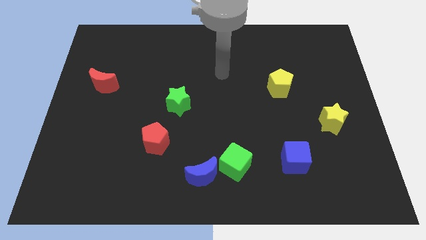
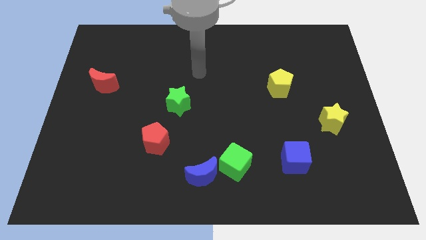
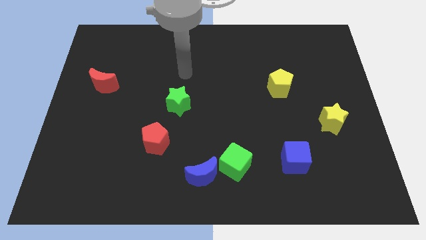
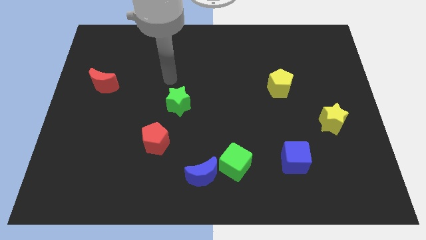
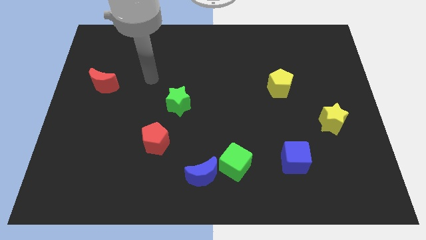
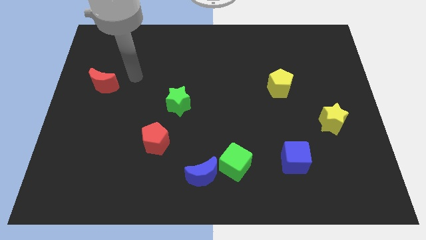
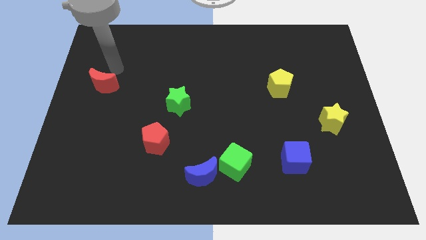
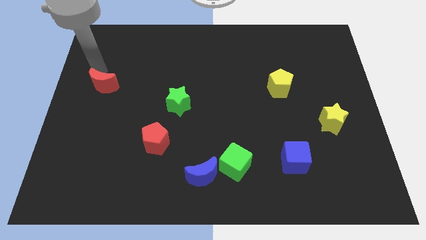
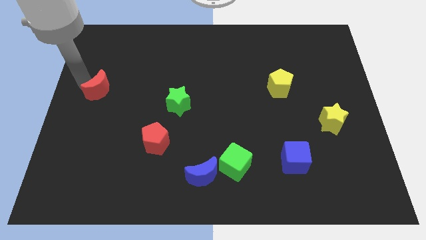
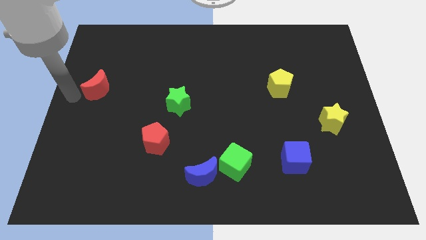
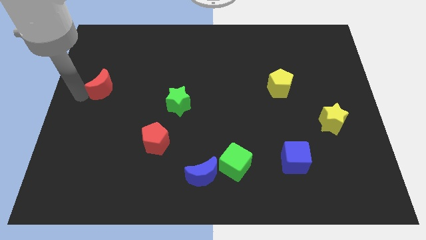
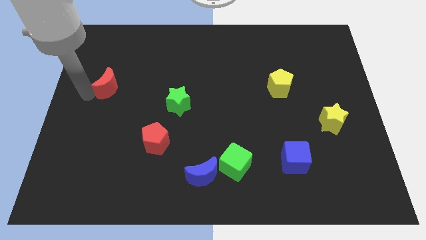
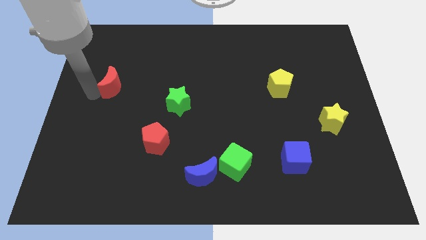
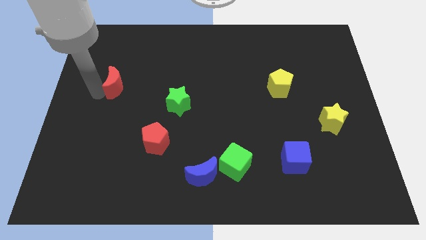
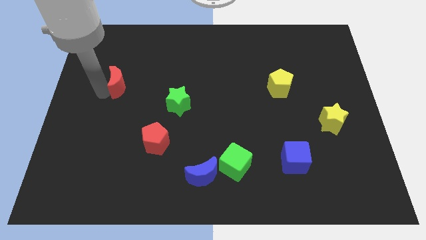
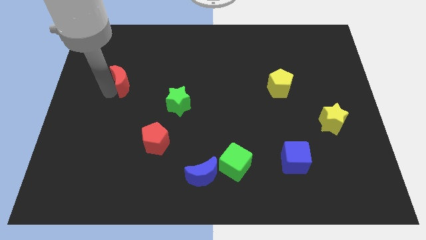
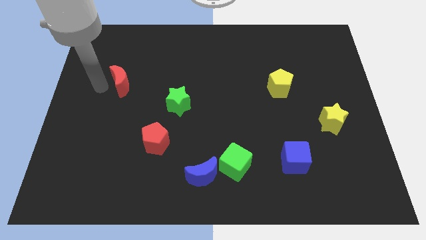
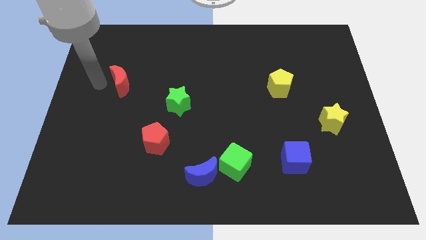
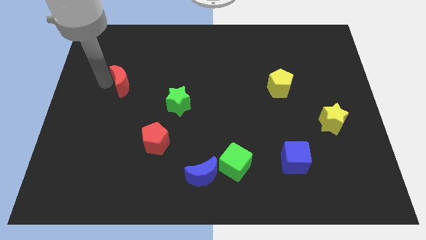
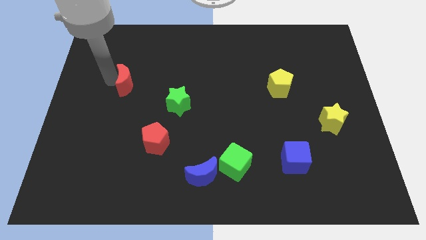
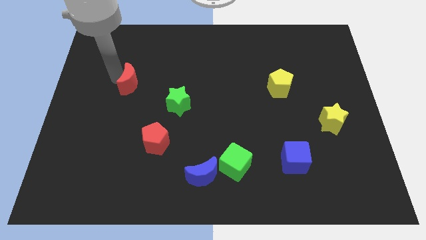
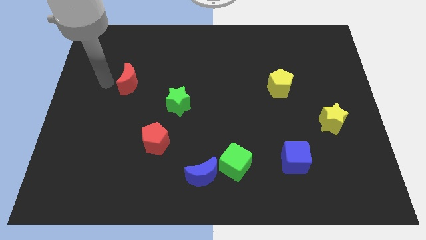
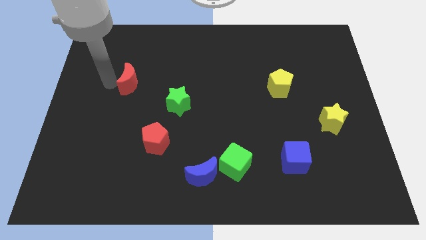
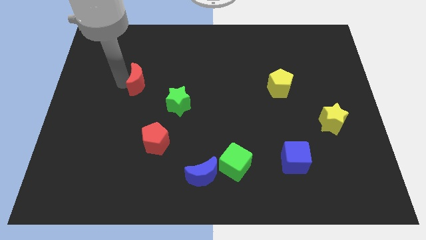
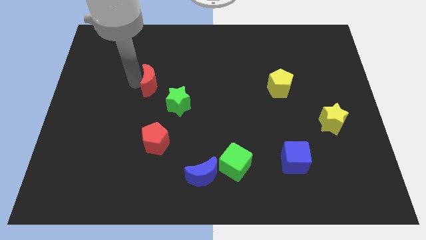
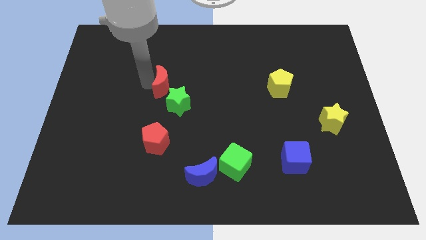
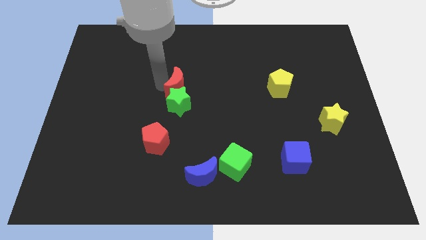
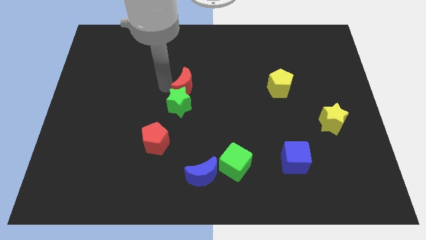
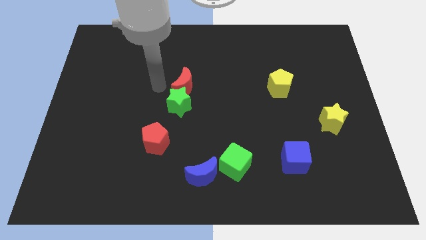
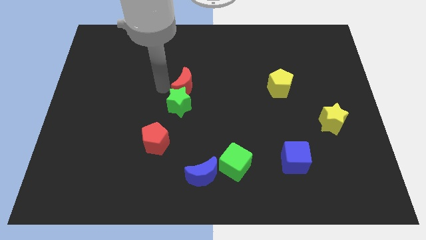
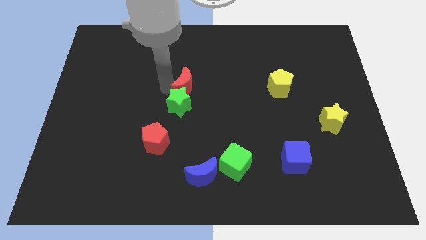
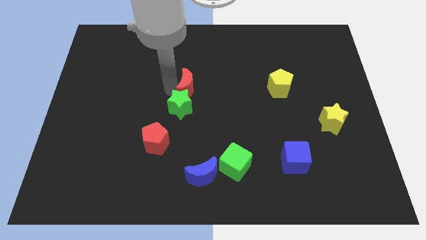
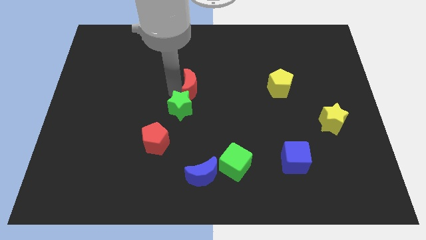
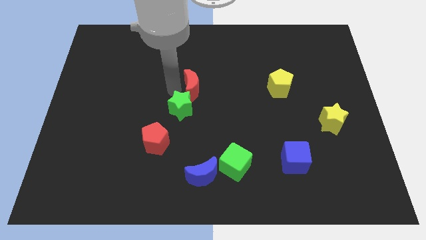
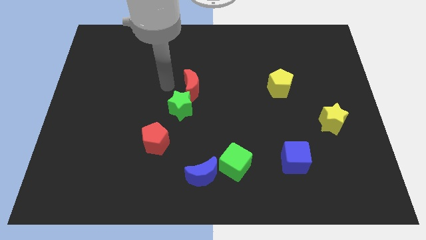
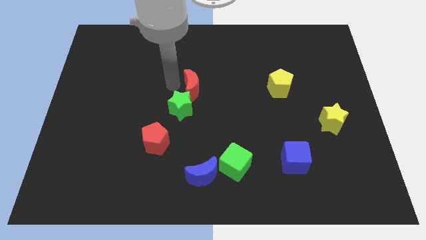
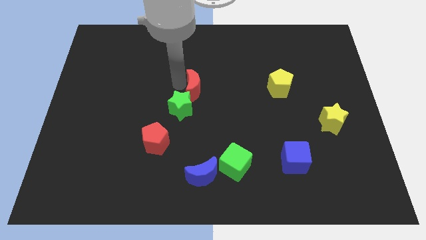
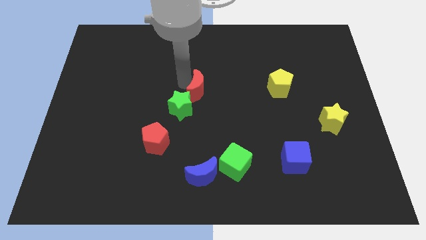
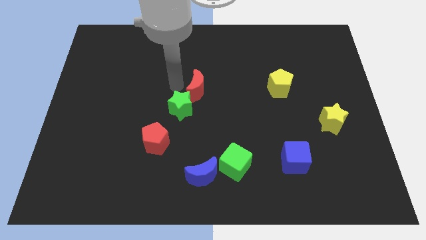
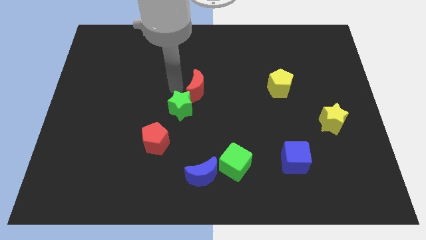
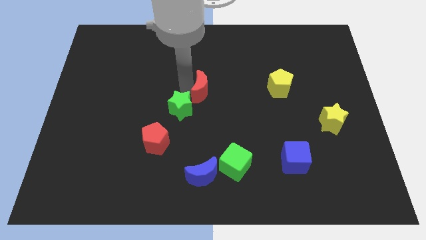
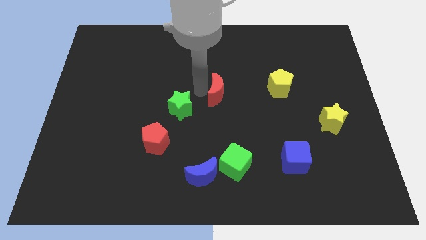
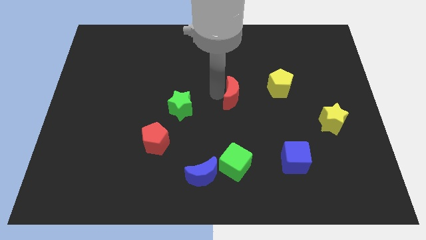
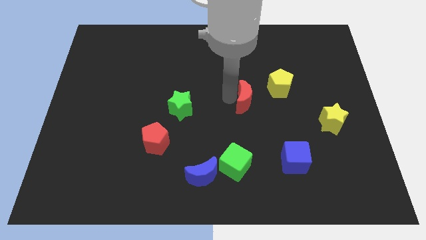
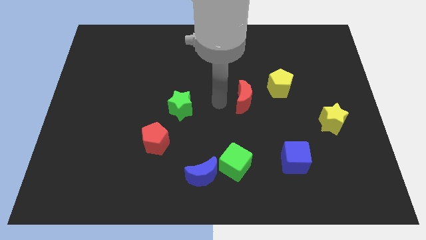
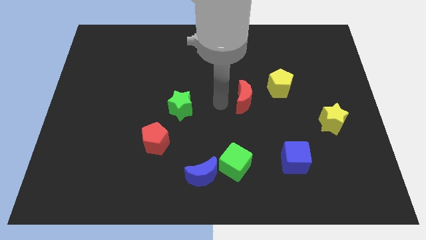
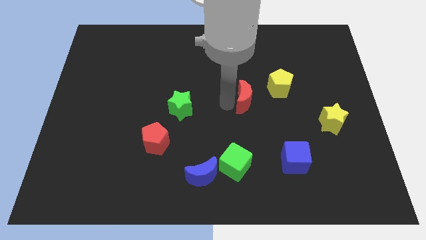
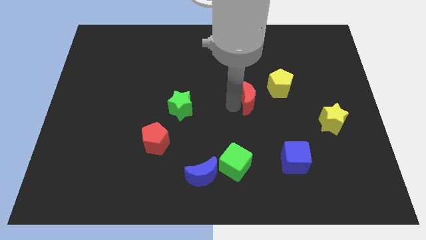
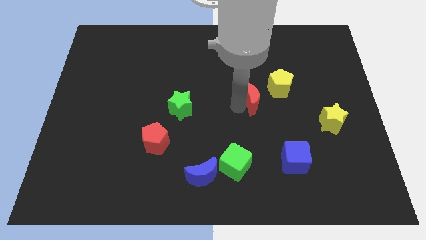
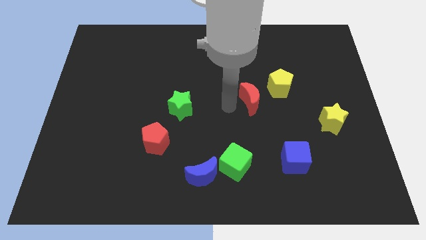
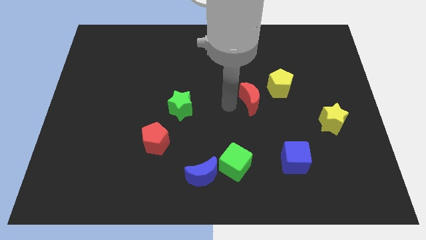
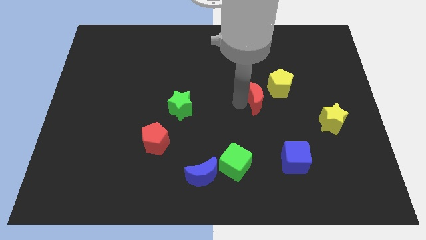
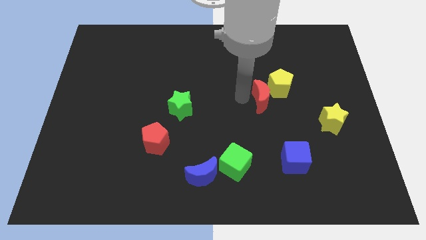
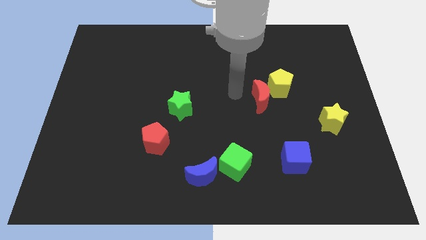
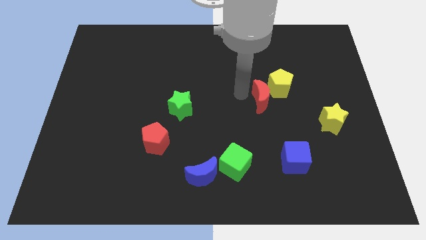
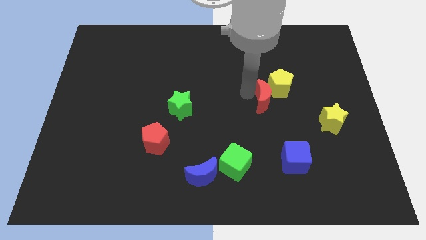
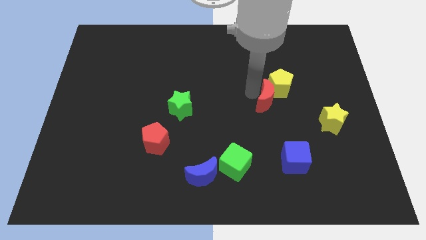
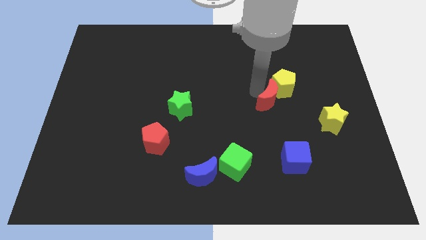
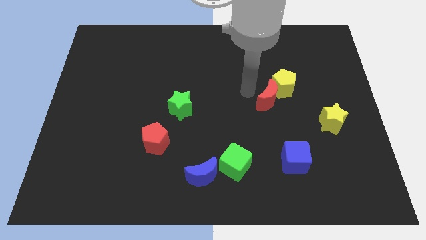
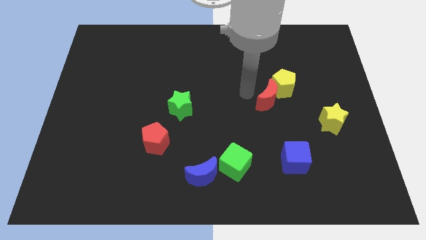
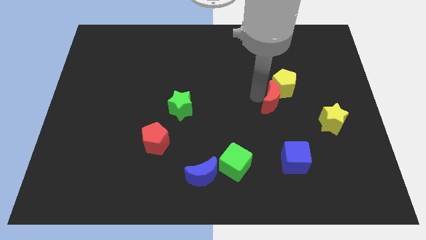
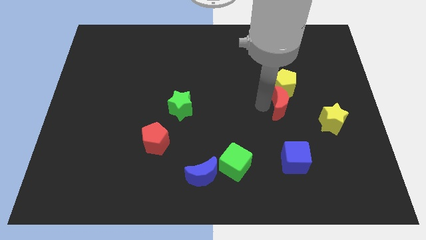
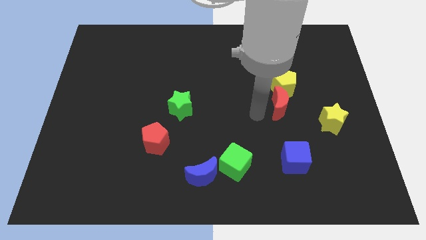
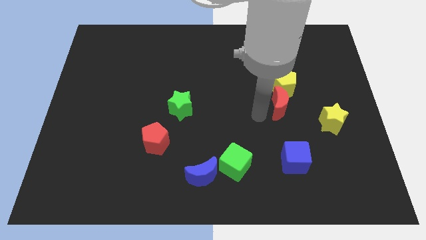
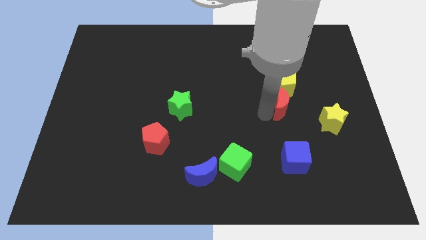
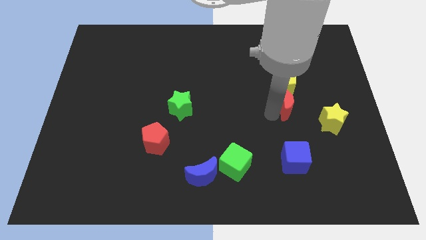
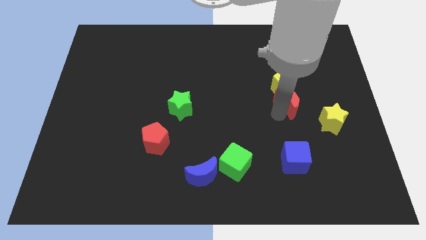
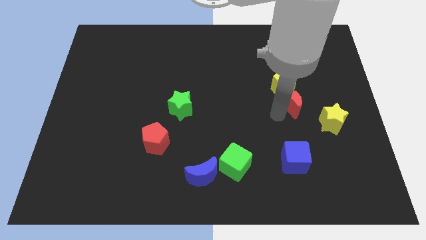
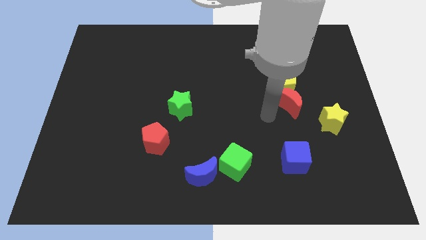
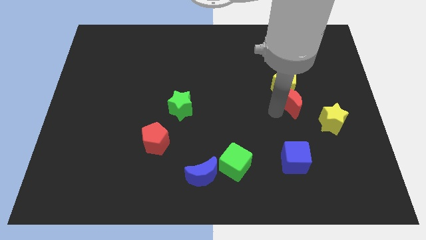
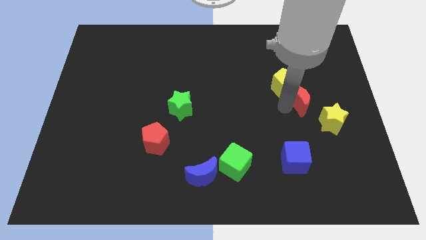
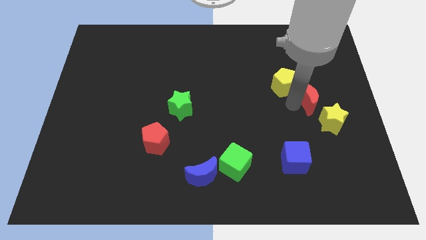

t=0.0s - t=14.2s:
move the red moon to the right of the yellow pentagon

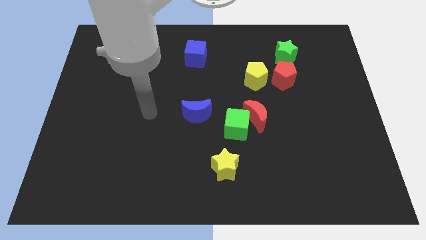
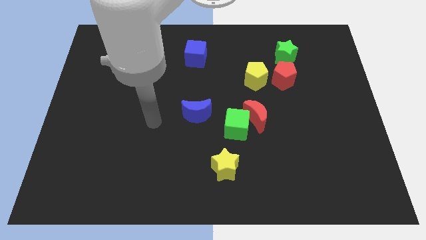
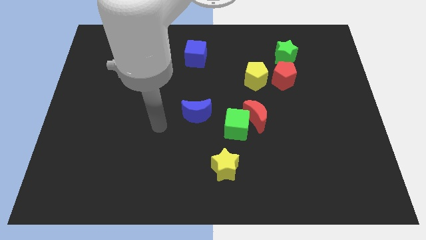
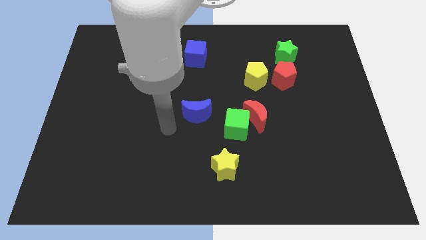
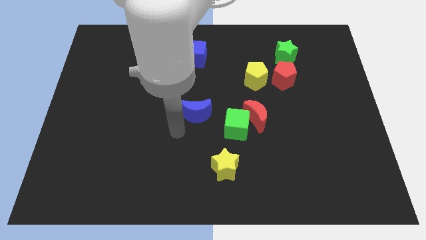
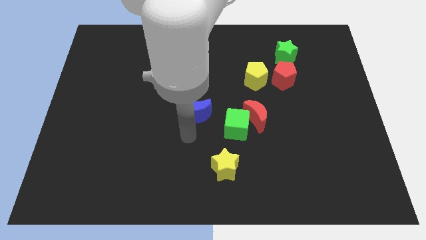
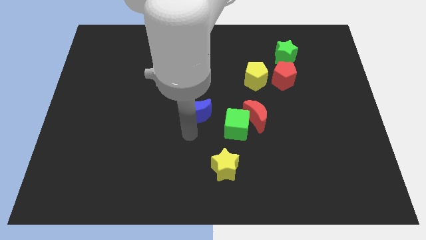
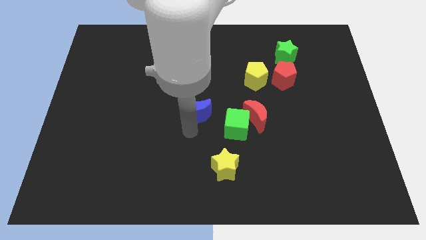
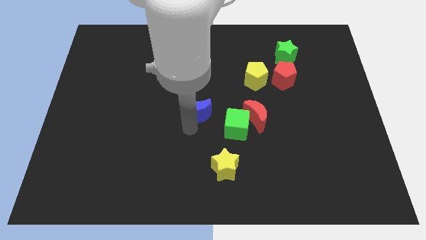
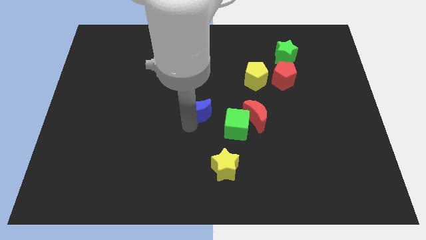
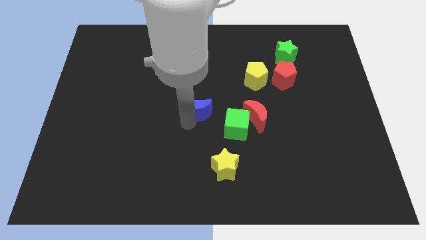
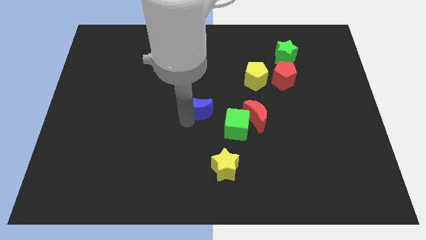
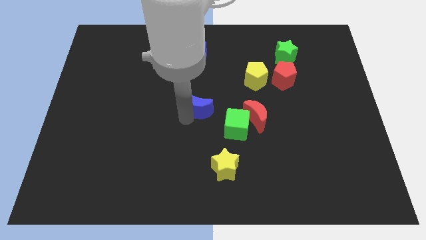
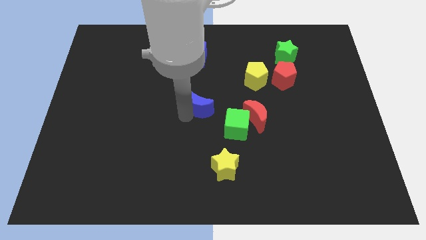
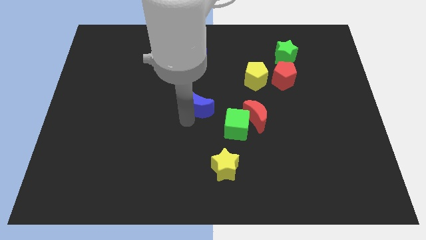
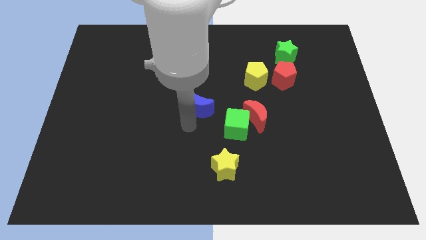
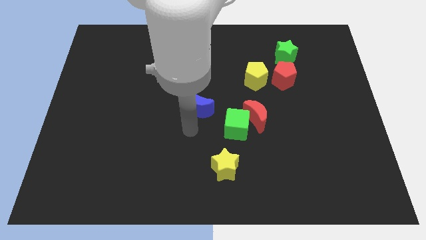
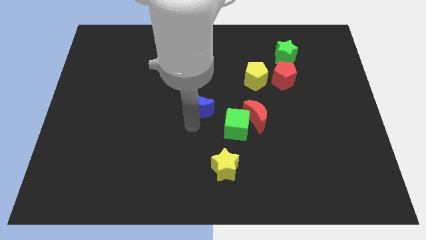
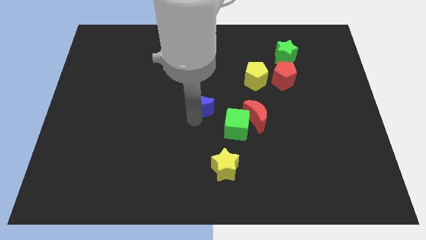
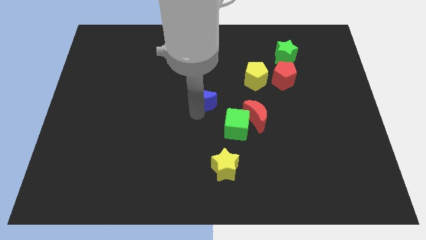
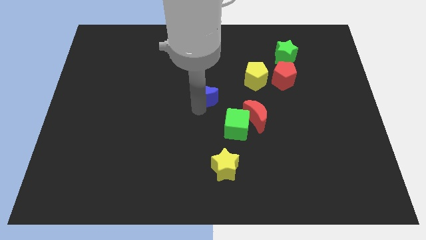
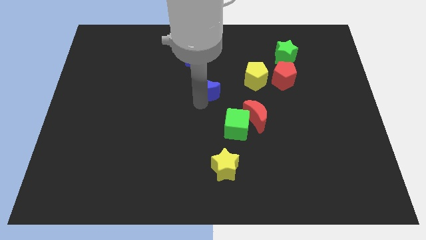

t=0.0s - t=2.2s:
push the blue moon just left of the yellow pentagon
